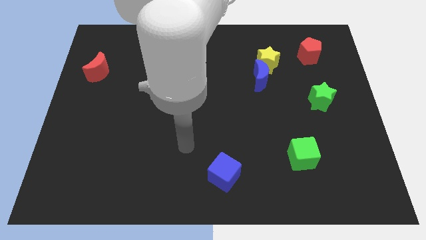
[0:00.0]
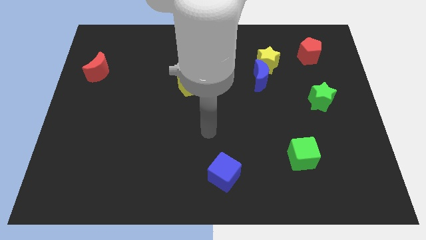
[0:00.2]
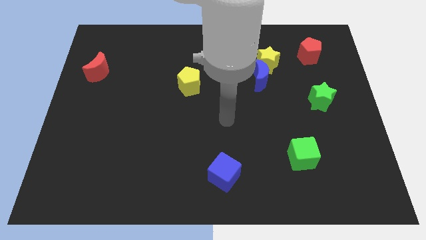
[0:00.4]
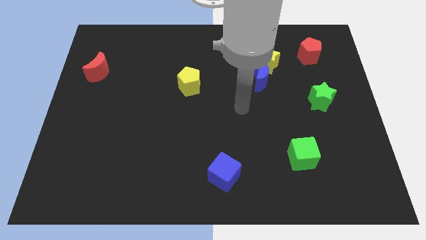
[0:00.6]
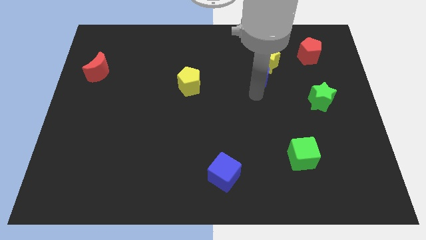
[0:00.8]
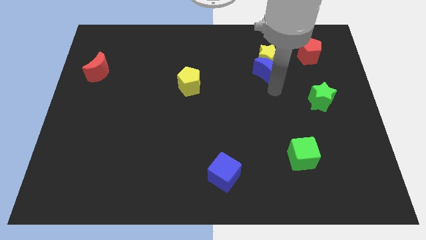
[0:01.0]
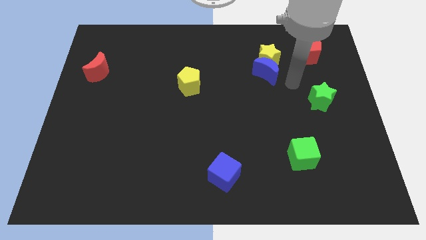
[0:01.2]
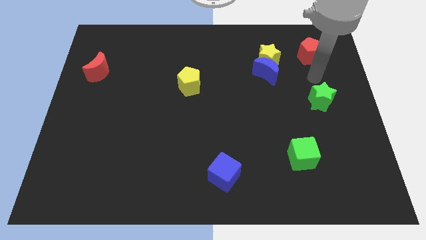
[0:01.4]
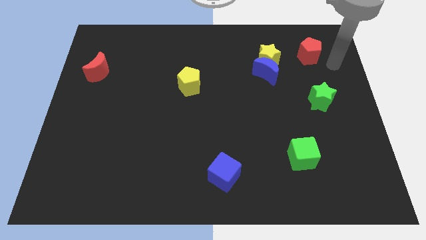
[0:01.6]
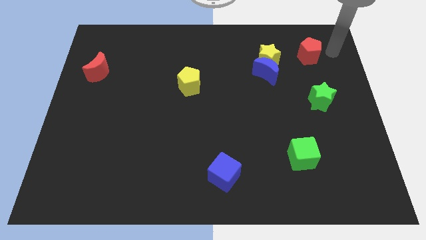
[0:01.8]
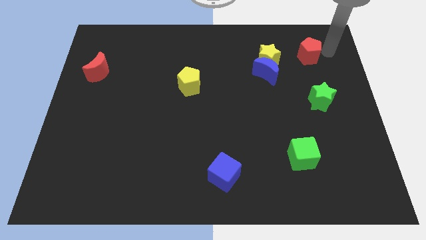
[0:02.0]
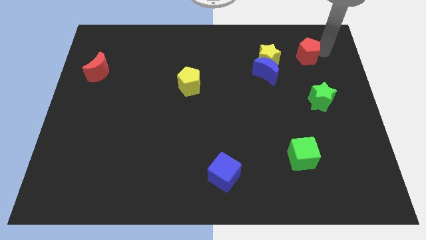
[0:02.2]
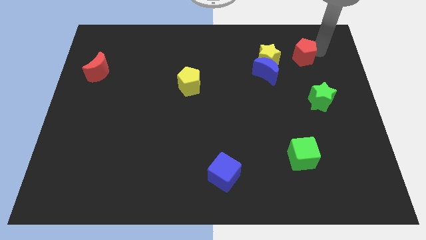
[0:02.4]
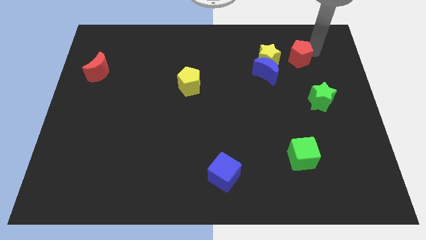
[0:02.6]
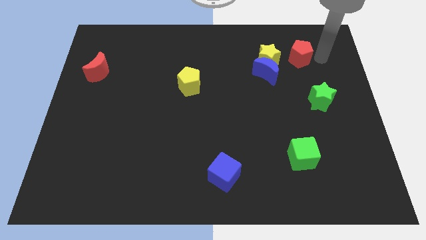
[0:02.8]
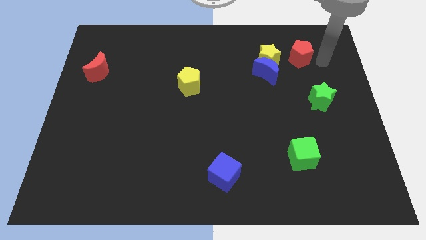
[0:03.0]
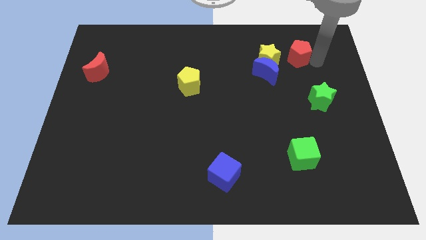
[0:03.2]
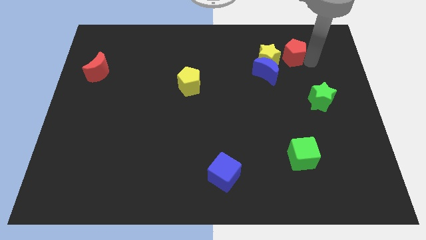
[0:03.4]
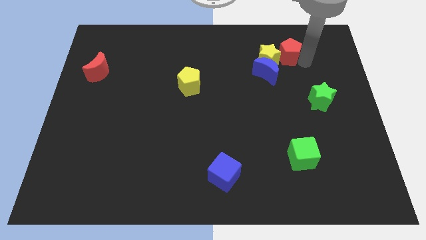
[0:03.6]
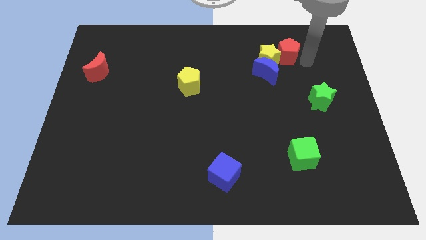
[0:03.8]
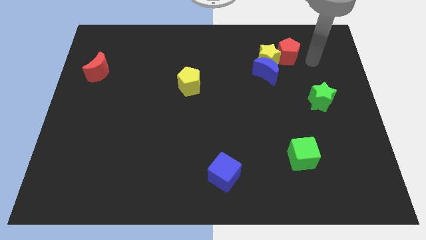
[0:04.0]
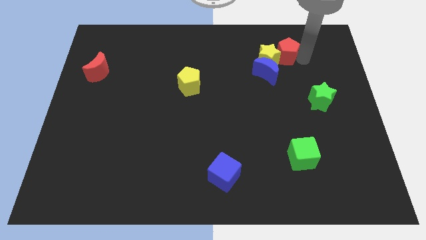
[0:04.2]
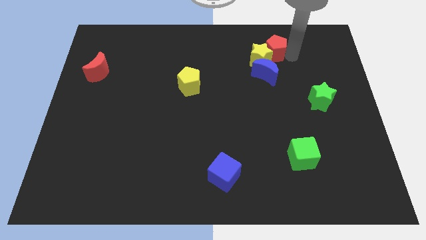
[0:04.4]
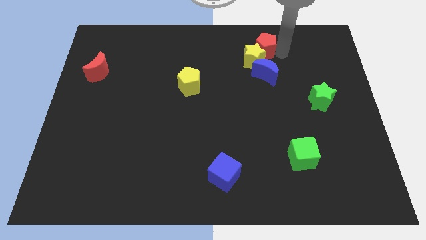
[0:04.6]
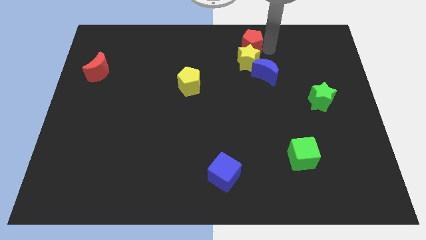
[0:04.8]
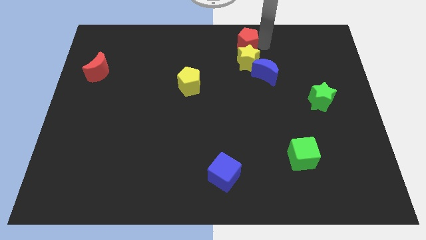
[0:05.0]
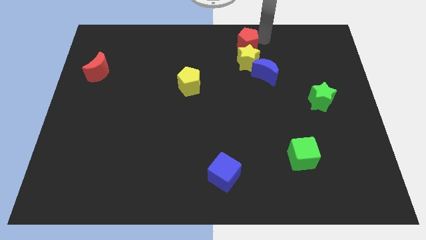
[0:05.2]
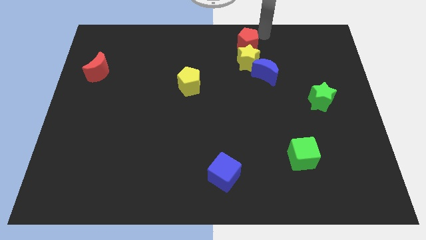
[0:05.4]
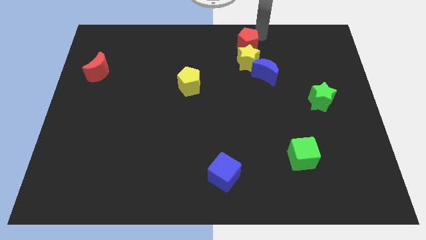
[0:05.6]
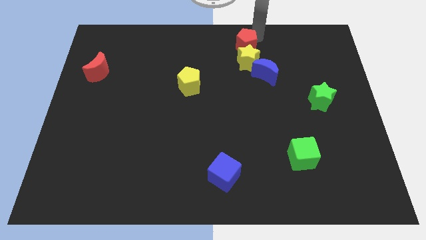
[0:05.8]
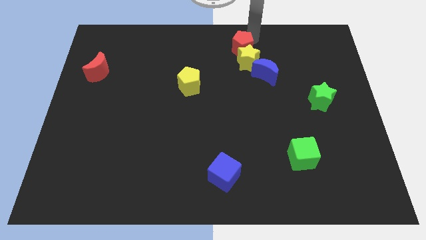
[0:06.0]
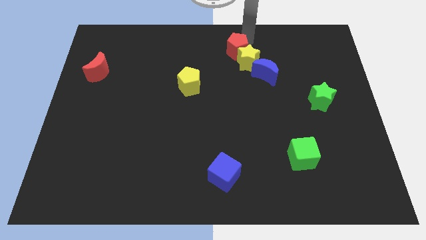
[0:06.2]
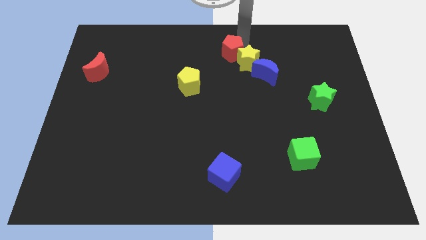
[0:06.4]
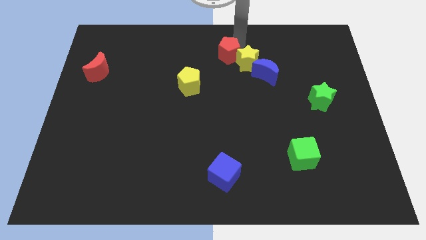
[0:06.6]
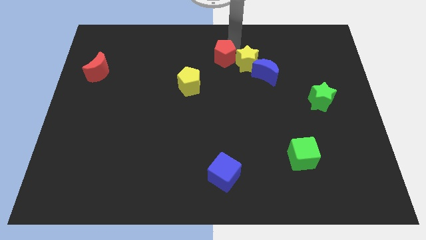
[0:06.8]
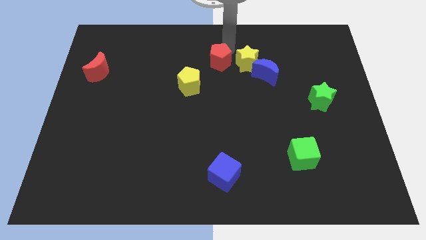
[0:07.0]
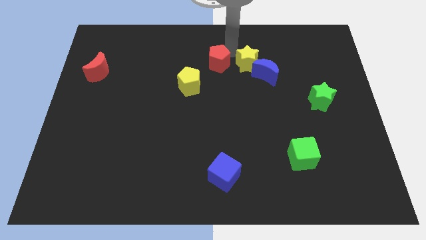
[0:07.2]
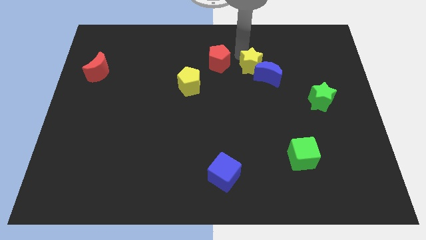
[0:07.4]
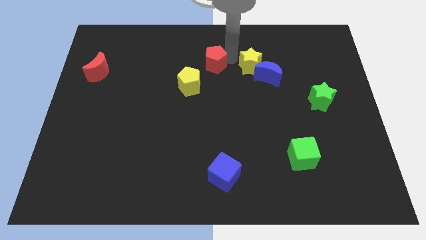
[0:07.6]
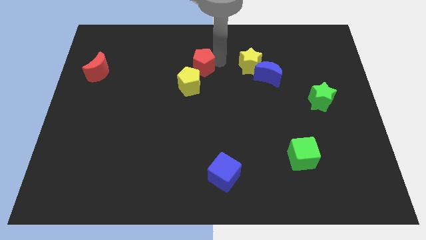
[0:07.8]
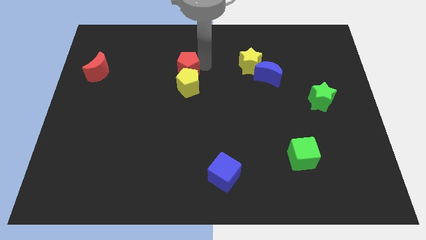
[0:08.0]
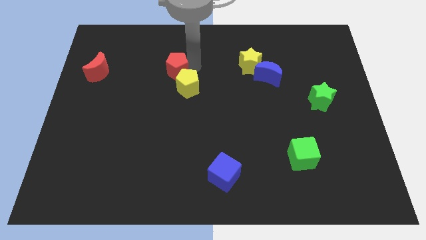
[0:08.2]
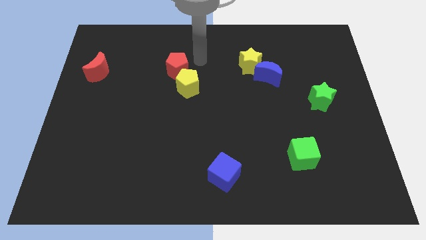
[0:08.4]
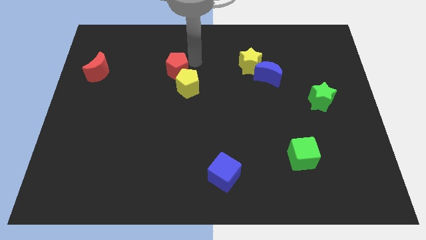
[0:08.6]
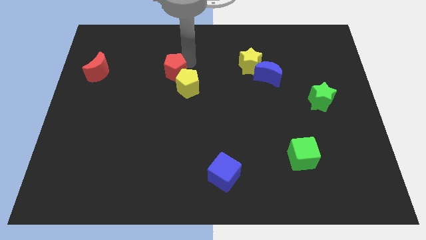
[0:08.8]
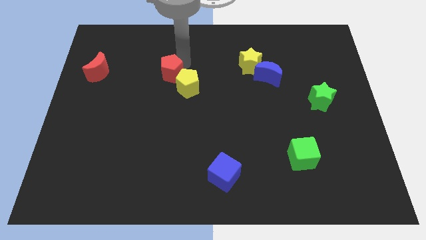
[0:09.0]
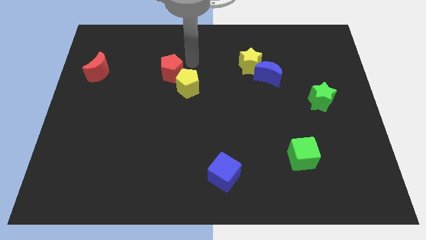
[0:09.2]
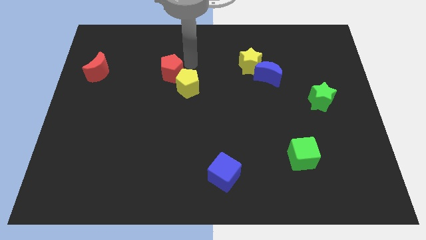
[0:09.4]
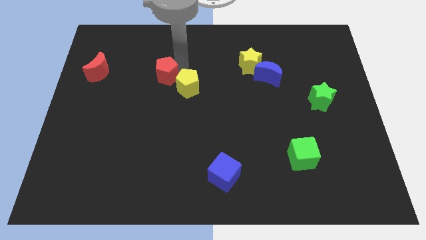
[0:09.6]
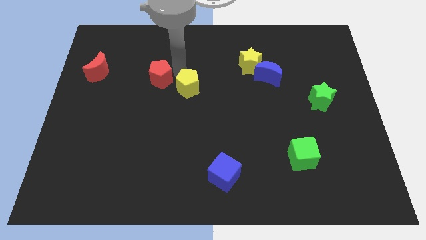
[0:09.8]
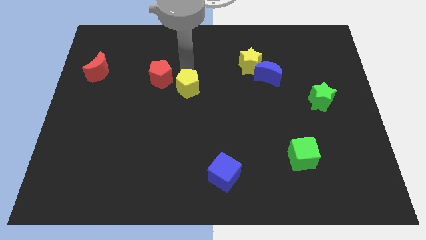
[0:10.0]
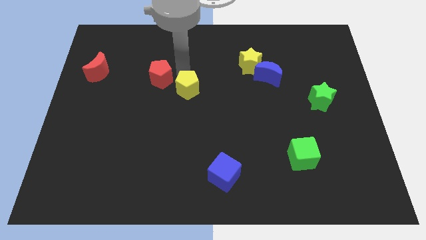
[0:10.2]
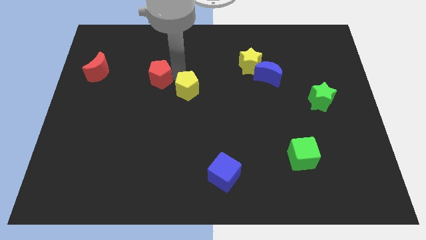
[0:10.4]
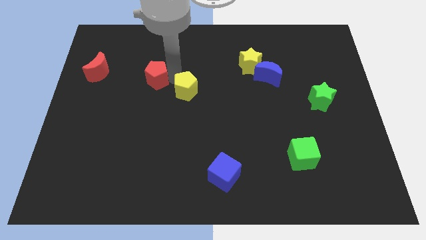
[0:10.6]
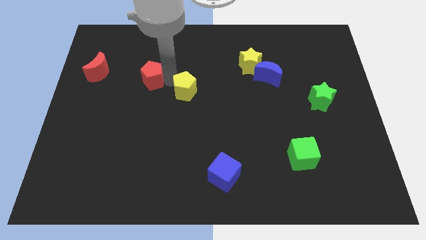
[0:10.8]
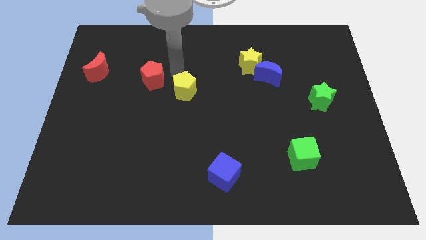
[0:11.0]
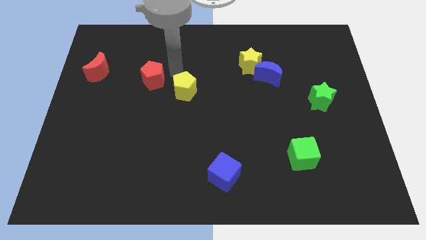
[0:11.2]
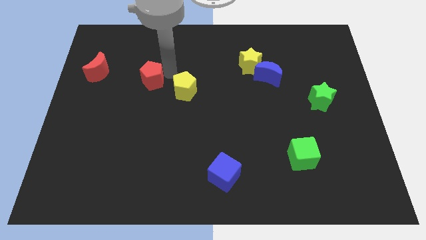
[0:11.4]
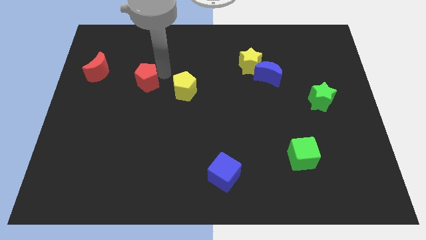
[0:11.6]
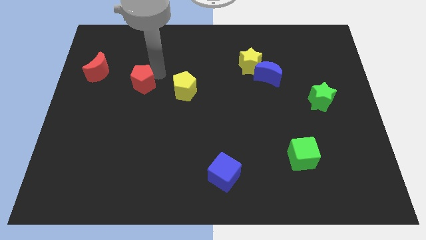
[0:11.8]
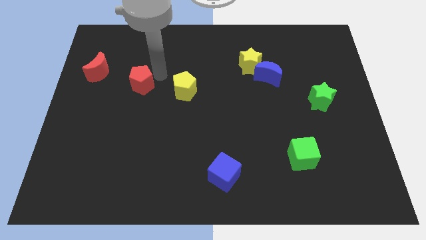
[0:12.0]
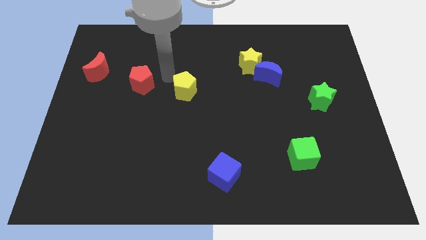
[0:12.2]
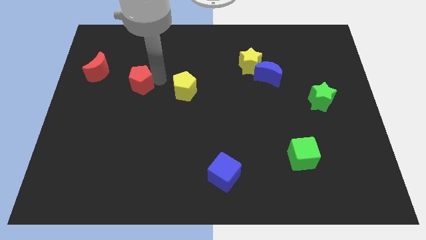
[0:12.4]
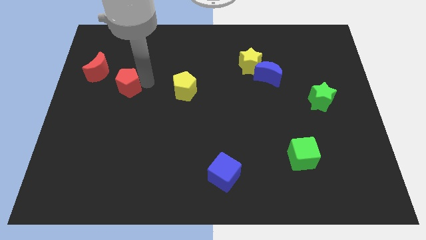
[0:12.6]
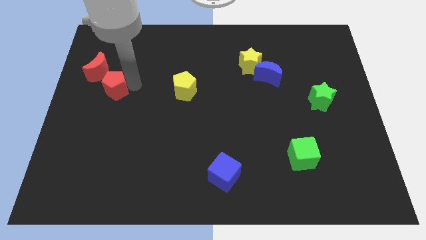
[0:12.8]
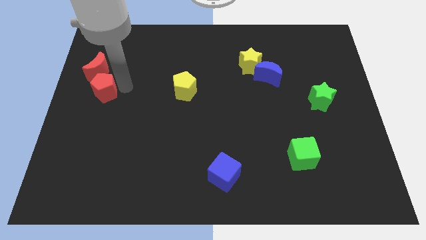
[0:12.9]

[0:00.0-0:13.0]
slide the red pentagon to the left side

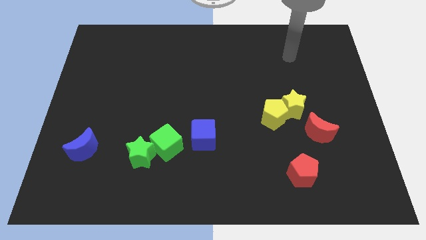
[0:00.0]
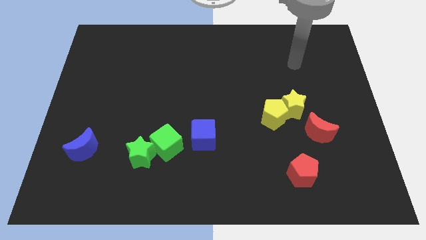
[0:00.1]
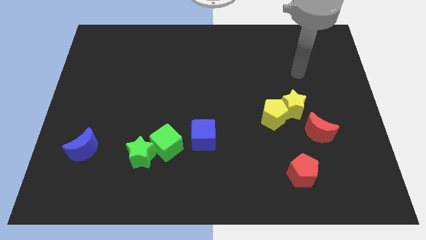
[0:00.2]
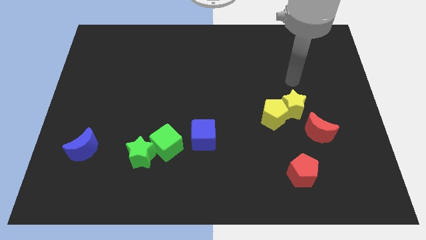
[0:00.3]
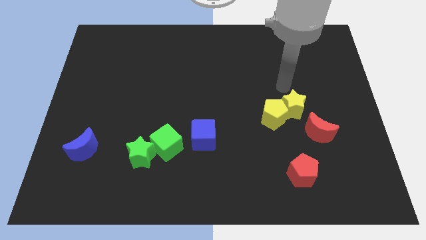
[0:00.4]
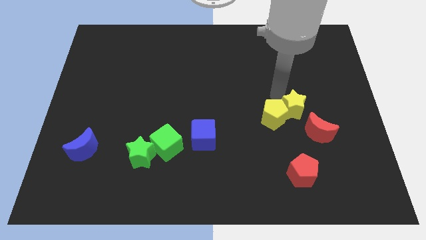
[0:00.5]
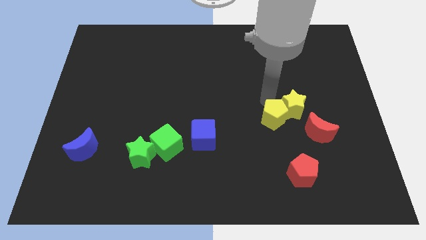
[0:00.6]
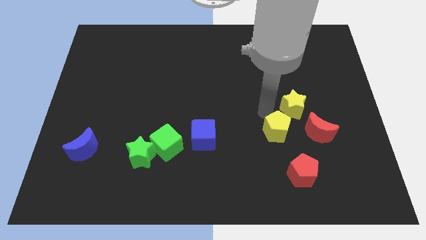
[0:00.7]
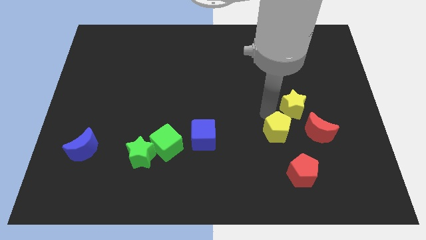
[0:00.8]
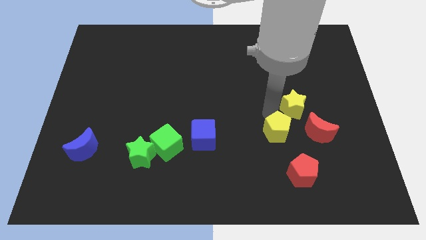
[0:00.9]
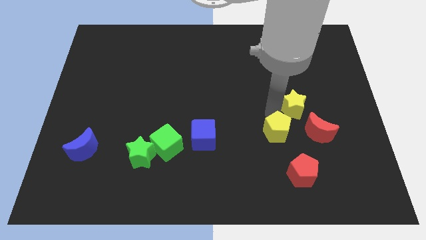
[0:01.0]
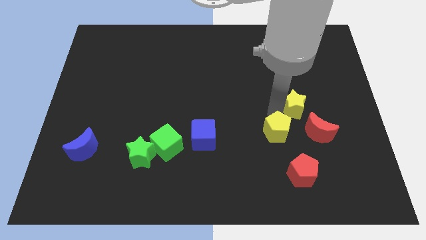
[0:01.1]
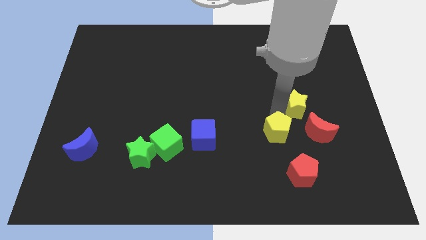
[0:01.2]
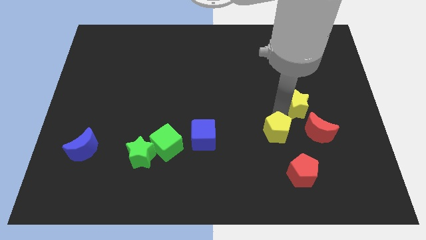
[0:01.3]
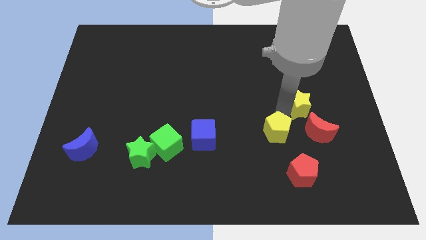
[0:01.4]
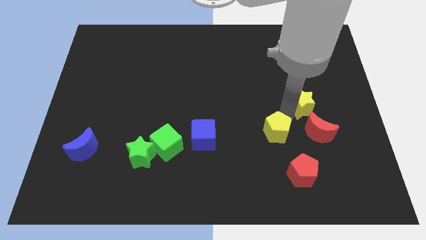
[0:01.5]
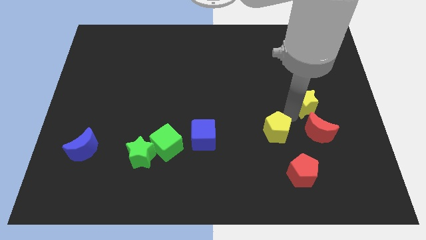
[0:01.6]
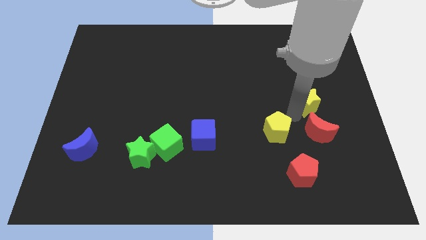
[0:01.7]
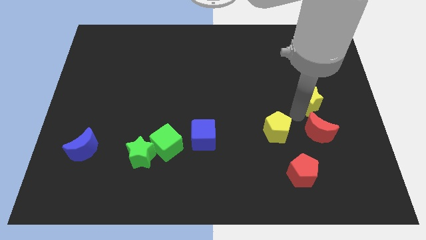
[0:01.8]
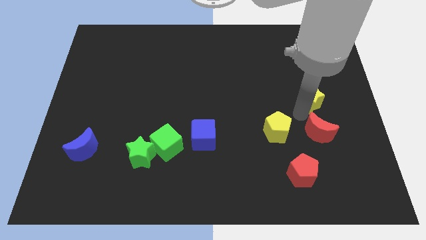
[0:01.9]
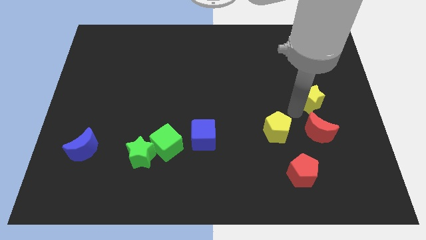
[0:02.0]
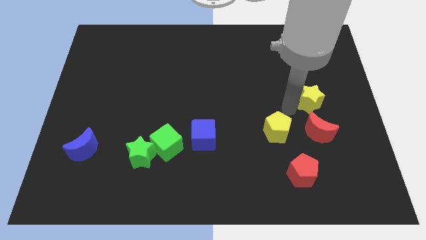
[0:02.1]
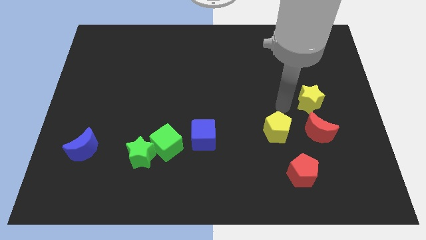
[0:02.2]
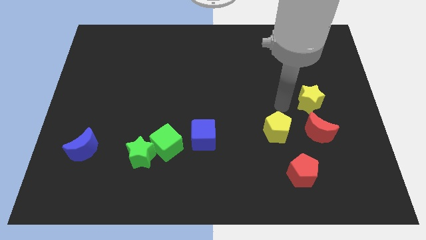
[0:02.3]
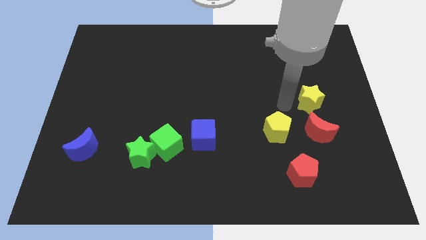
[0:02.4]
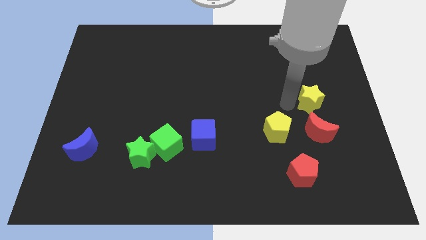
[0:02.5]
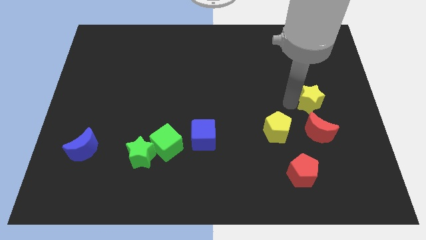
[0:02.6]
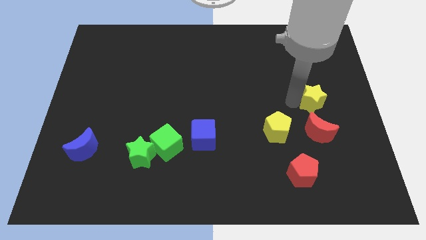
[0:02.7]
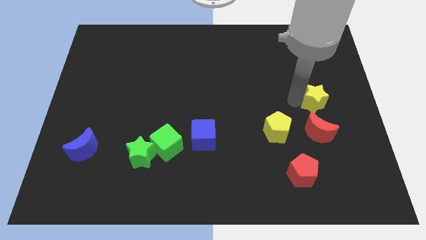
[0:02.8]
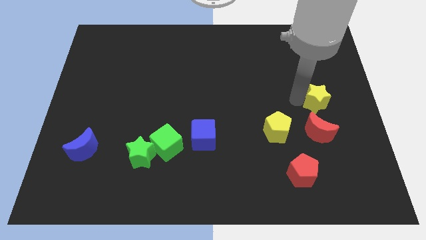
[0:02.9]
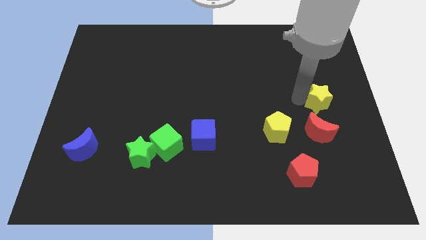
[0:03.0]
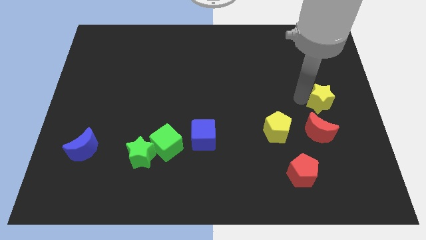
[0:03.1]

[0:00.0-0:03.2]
slide the yellow star to the center right
